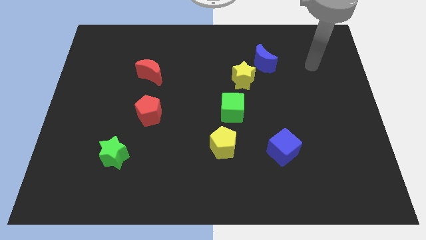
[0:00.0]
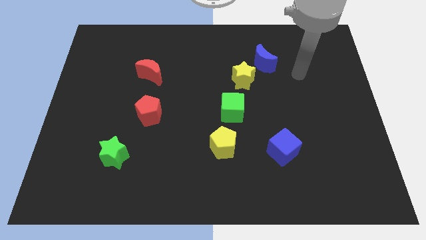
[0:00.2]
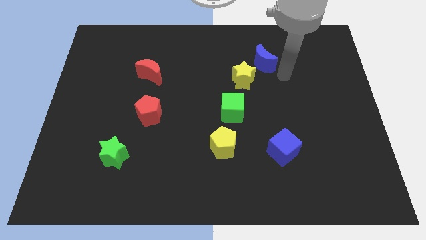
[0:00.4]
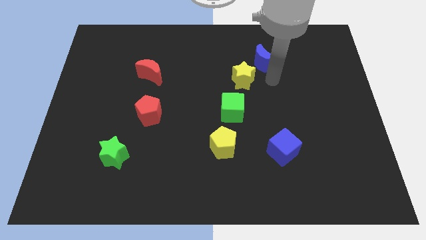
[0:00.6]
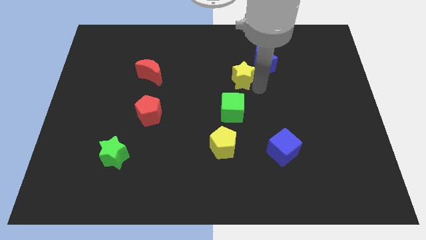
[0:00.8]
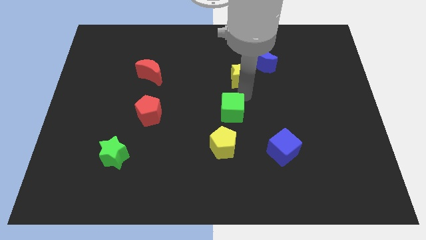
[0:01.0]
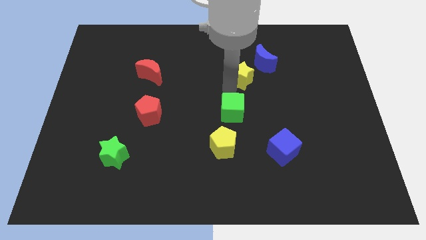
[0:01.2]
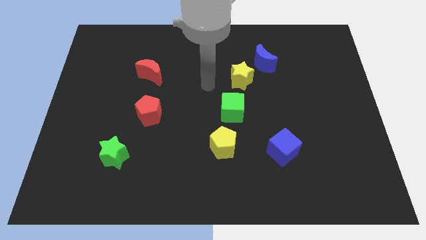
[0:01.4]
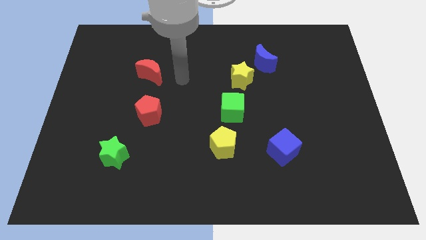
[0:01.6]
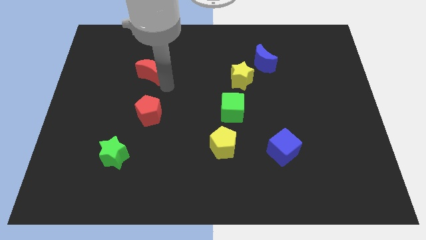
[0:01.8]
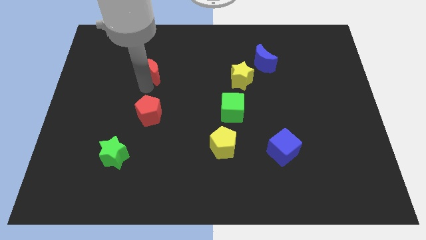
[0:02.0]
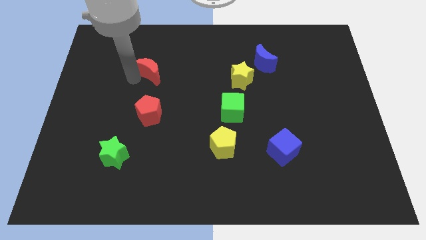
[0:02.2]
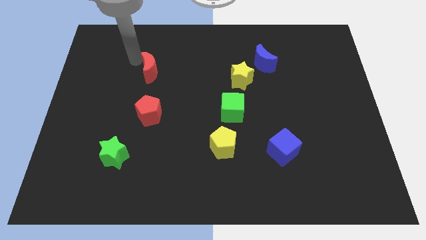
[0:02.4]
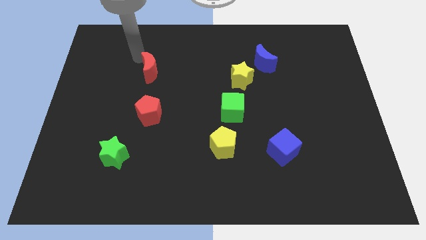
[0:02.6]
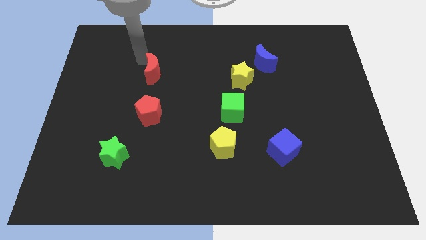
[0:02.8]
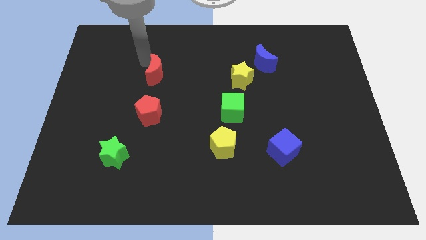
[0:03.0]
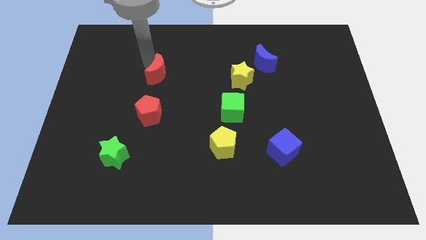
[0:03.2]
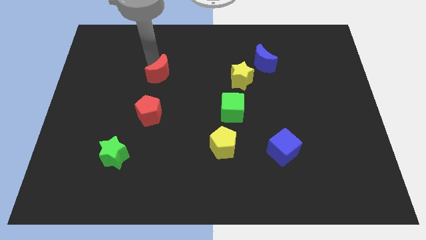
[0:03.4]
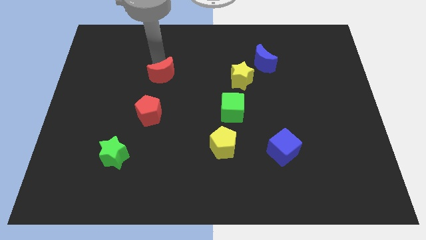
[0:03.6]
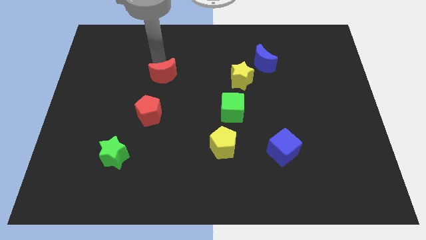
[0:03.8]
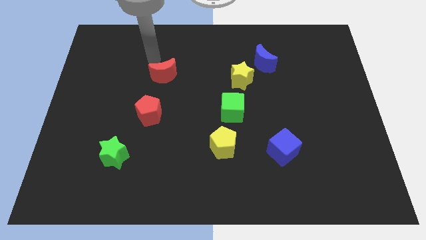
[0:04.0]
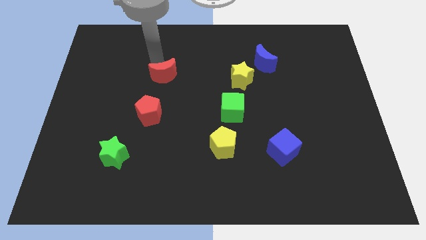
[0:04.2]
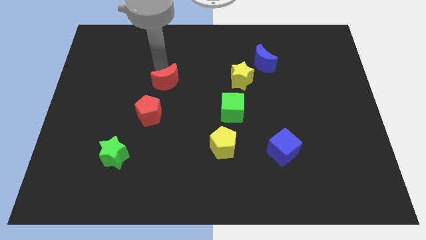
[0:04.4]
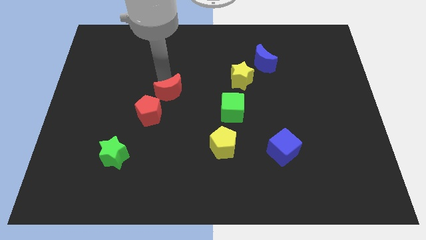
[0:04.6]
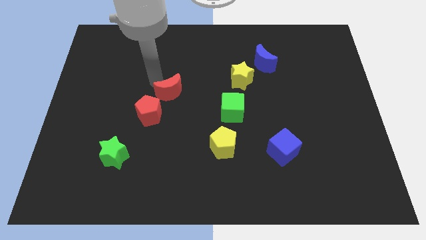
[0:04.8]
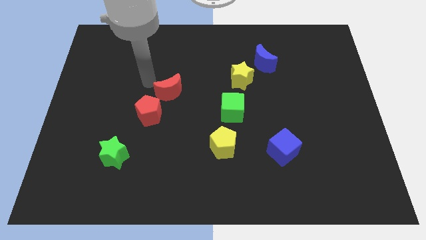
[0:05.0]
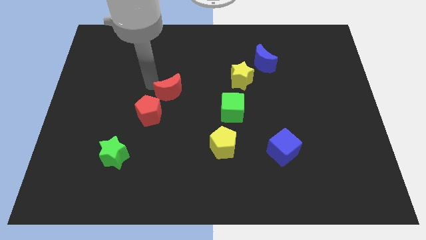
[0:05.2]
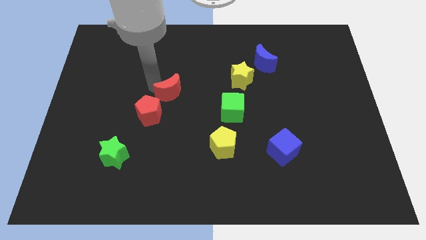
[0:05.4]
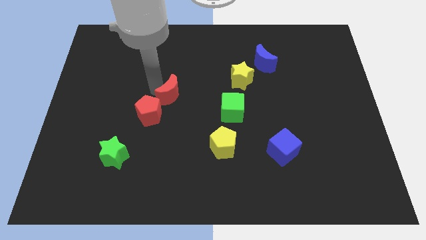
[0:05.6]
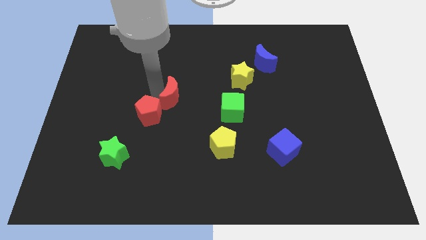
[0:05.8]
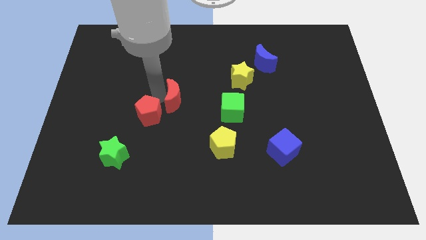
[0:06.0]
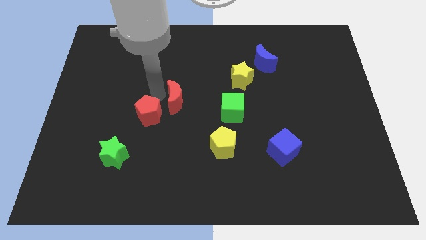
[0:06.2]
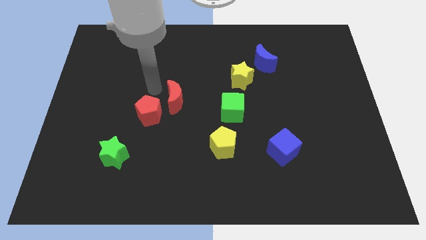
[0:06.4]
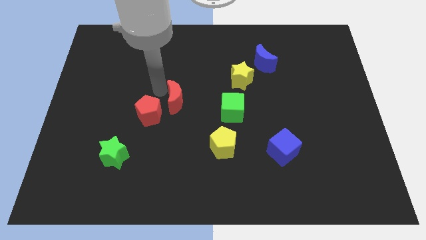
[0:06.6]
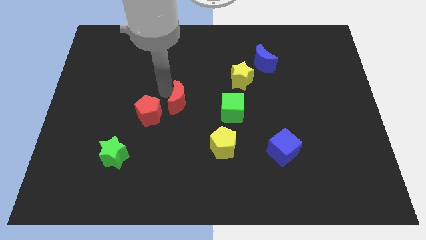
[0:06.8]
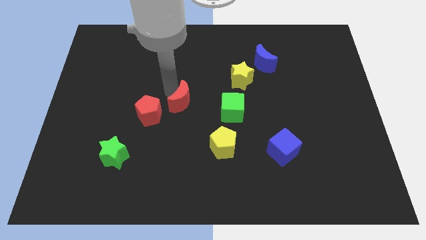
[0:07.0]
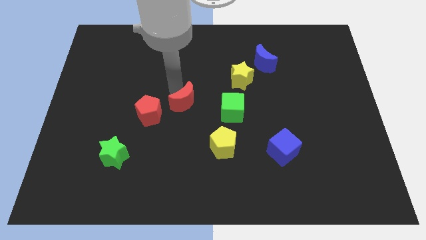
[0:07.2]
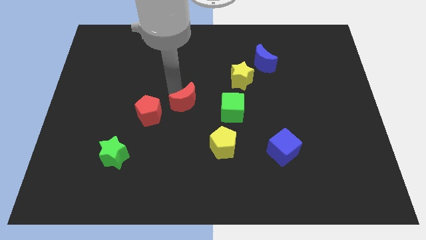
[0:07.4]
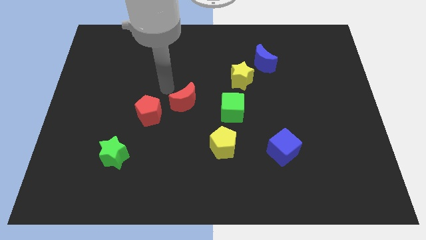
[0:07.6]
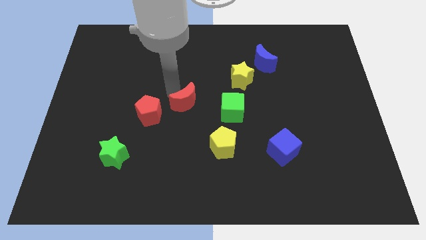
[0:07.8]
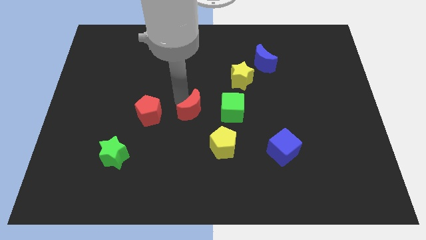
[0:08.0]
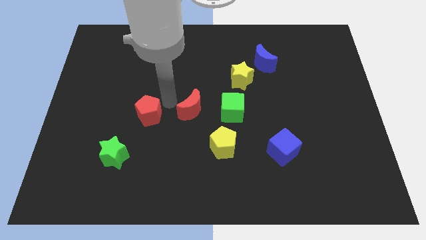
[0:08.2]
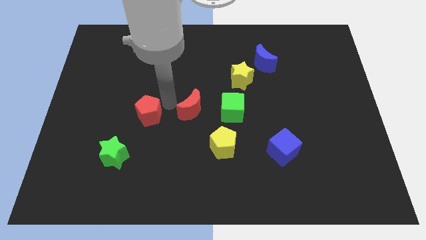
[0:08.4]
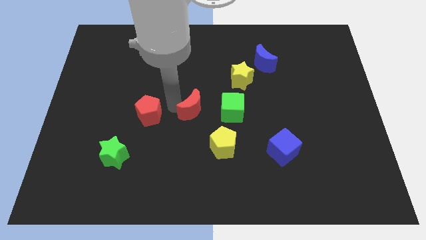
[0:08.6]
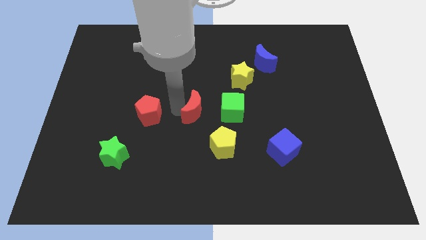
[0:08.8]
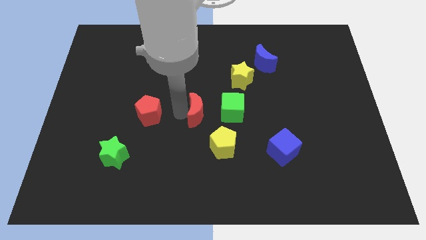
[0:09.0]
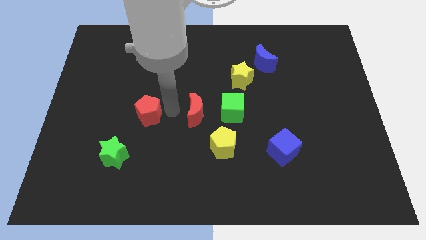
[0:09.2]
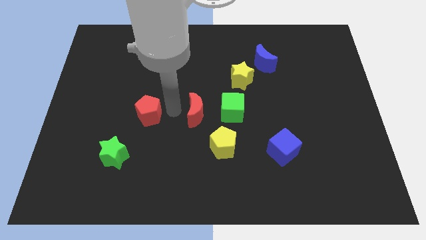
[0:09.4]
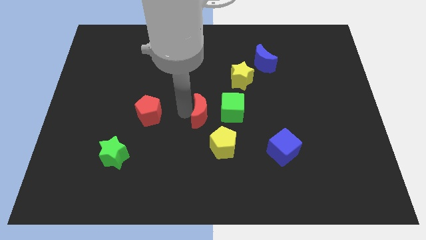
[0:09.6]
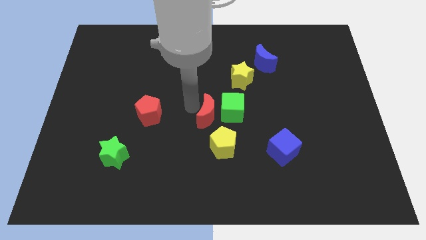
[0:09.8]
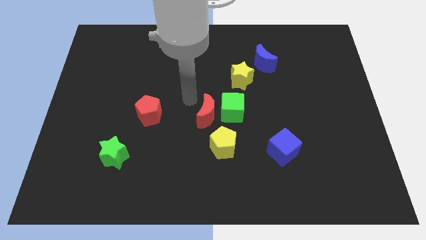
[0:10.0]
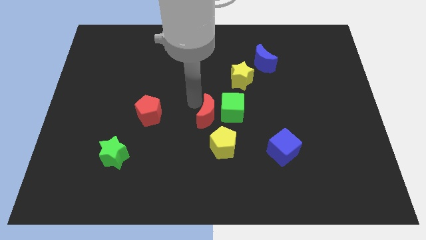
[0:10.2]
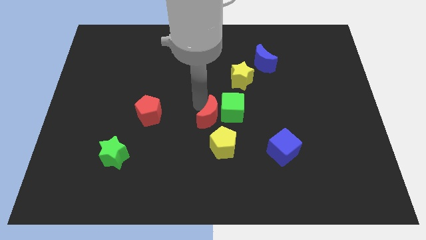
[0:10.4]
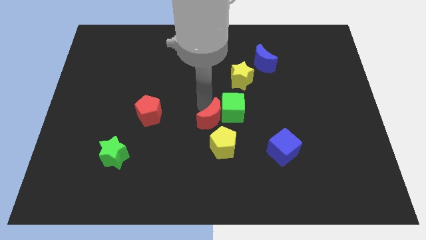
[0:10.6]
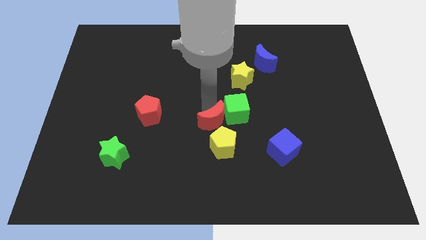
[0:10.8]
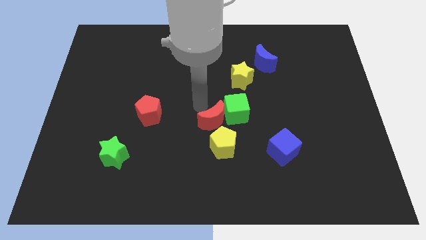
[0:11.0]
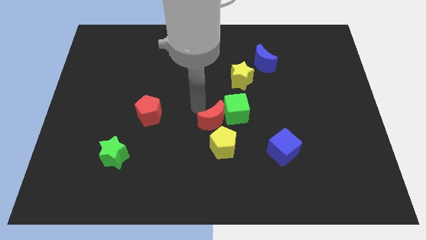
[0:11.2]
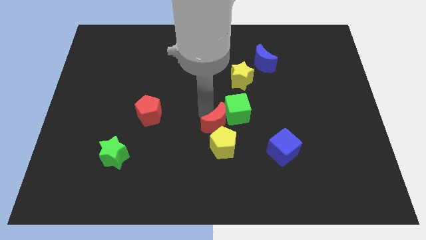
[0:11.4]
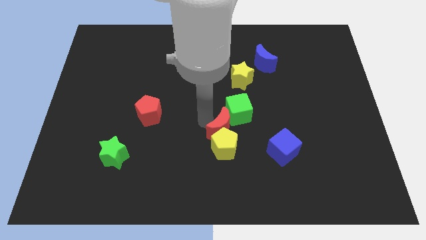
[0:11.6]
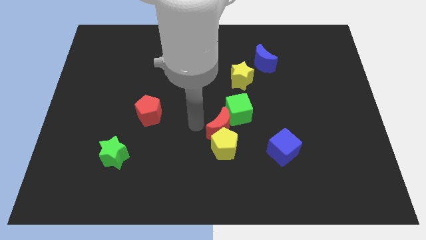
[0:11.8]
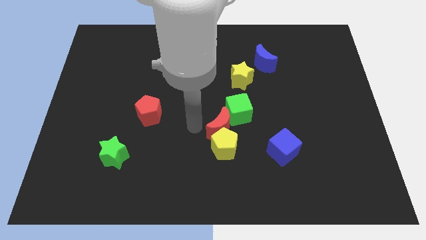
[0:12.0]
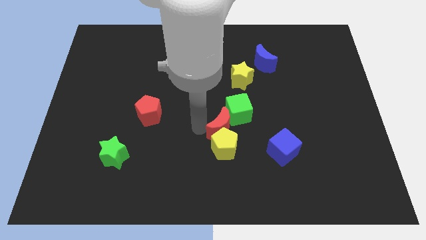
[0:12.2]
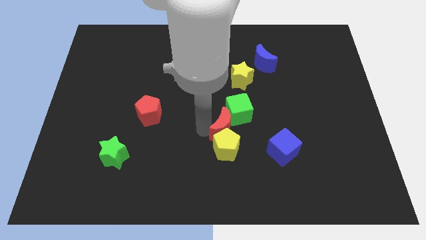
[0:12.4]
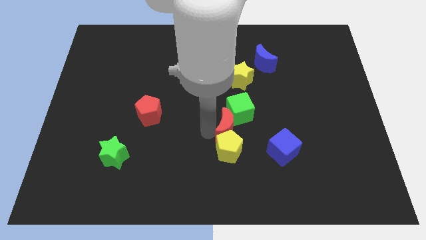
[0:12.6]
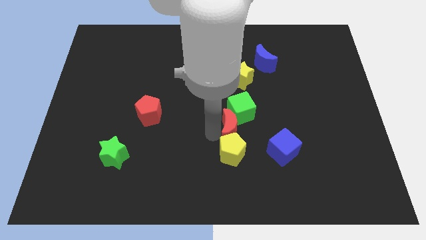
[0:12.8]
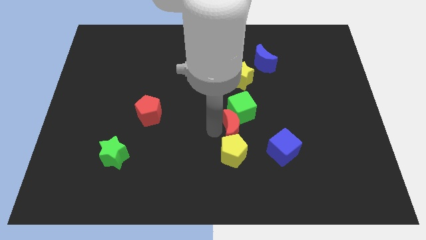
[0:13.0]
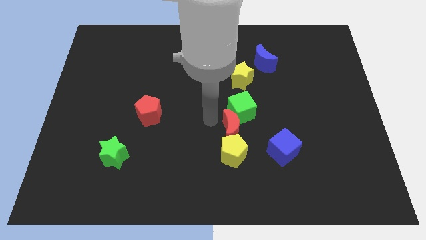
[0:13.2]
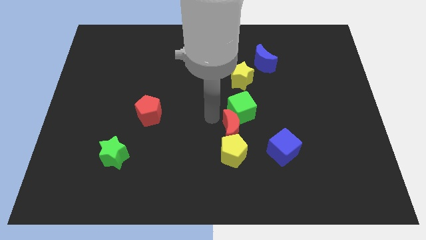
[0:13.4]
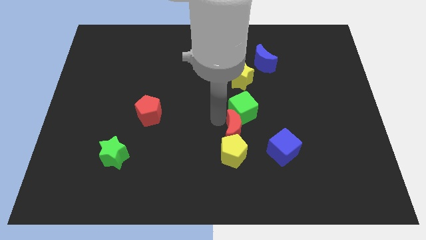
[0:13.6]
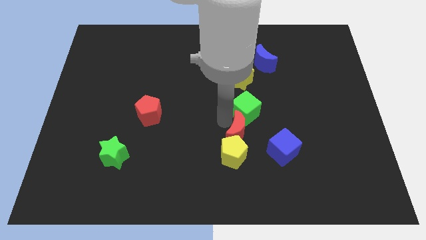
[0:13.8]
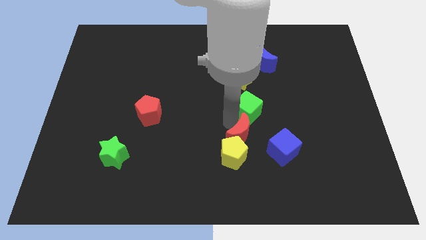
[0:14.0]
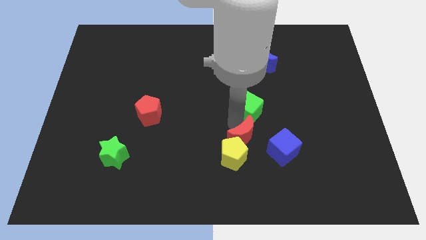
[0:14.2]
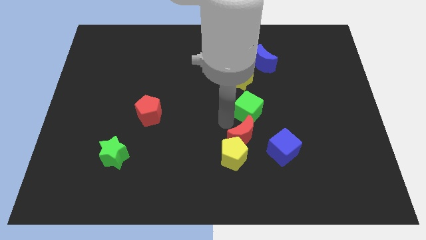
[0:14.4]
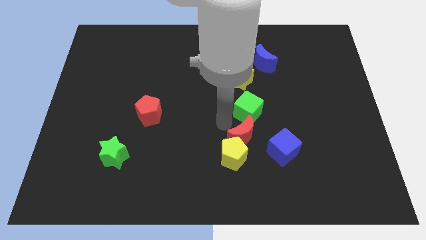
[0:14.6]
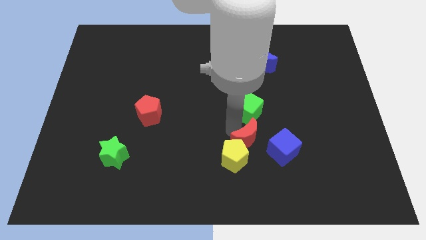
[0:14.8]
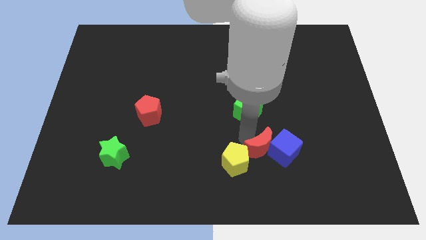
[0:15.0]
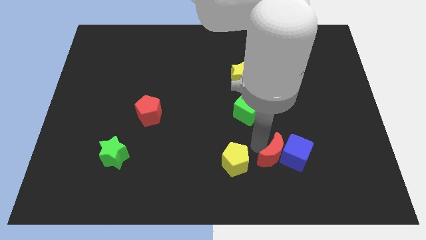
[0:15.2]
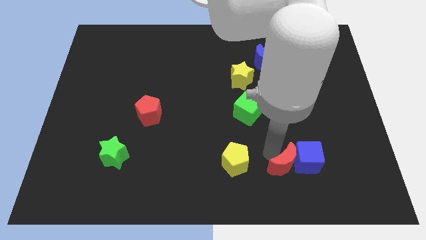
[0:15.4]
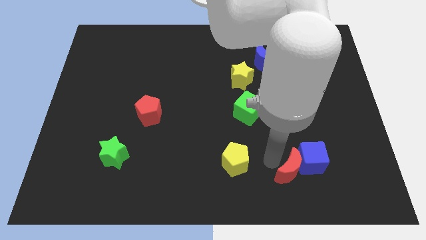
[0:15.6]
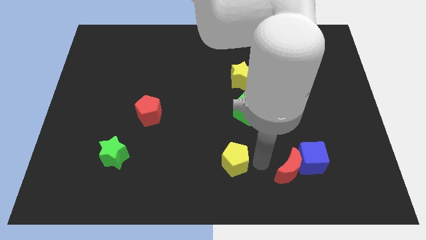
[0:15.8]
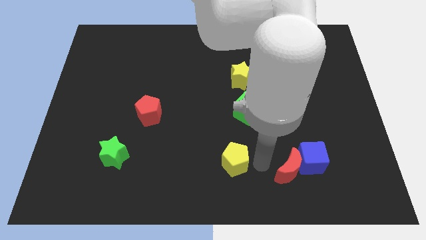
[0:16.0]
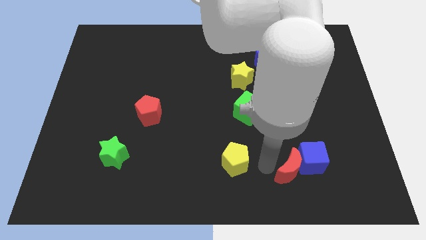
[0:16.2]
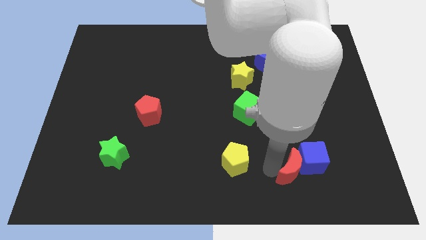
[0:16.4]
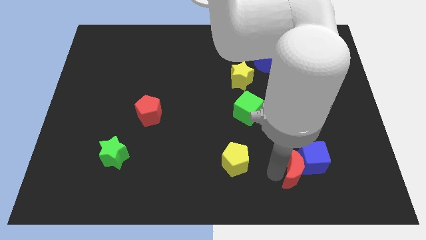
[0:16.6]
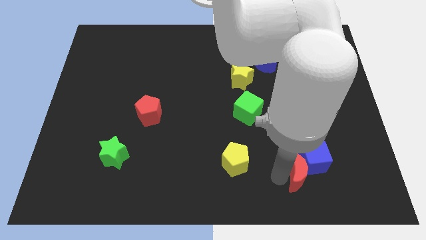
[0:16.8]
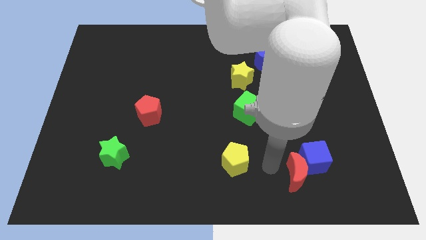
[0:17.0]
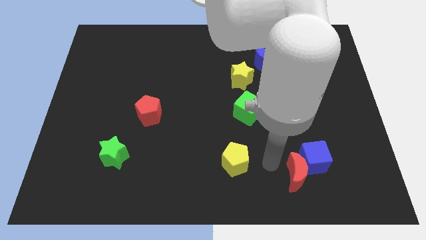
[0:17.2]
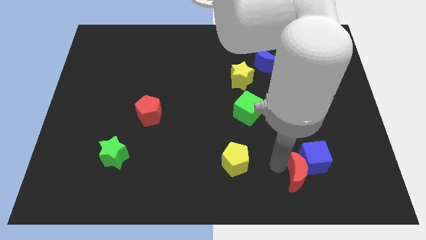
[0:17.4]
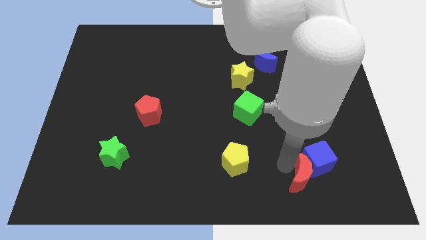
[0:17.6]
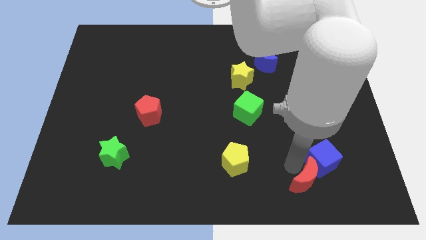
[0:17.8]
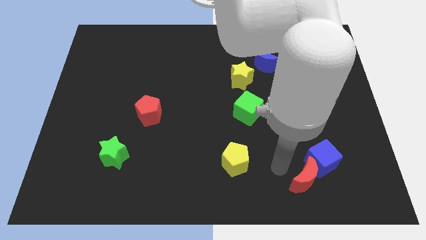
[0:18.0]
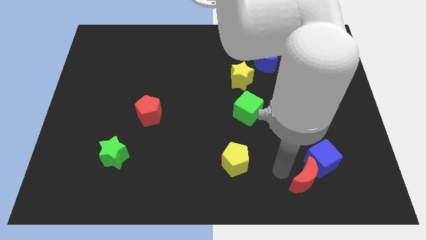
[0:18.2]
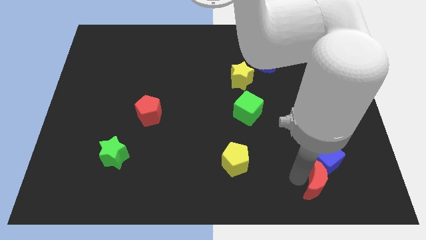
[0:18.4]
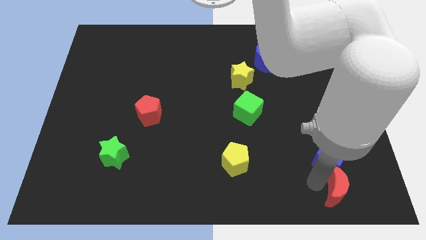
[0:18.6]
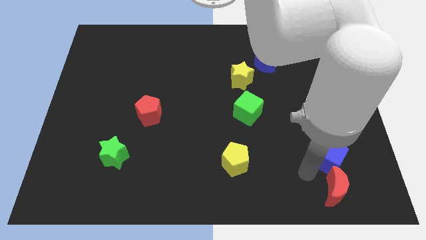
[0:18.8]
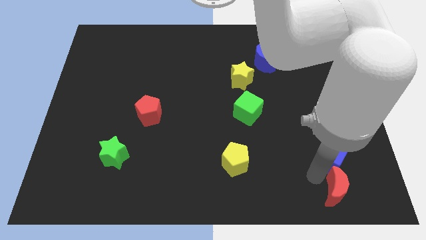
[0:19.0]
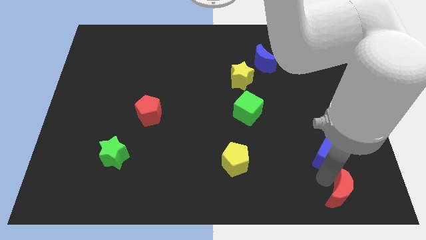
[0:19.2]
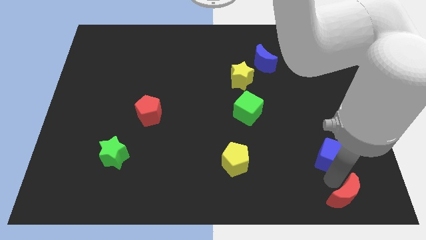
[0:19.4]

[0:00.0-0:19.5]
push the red moon to the lower right corner
